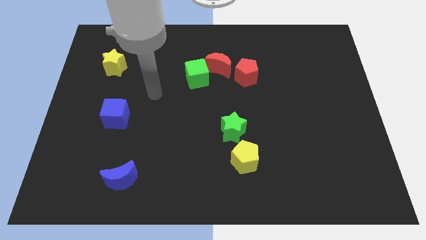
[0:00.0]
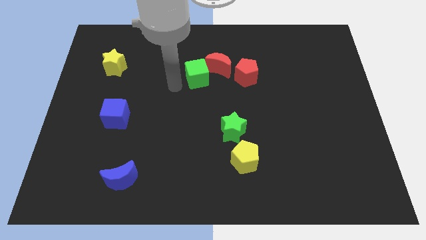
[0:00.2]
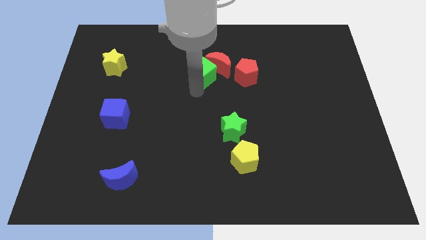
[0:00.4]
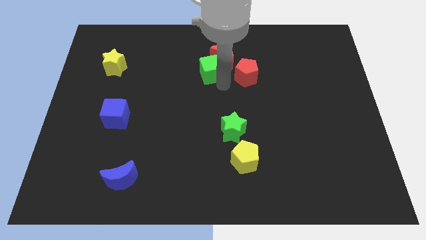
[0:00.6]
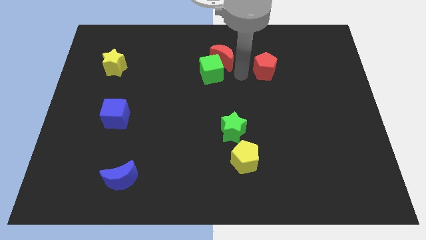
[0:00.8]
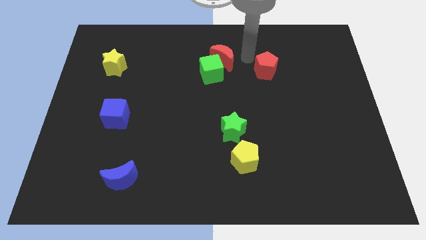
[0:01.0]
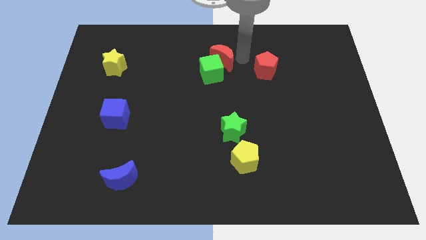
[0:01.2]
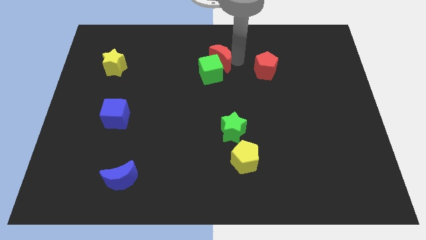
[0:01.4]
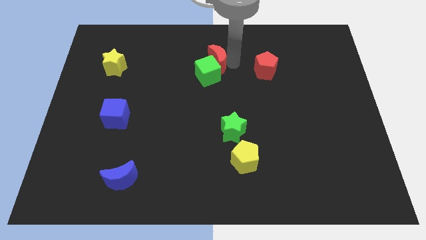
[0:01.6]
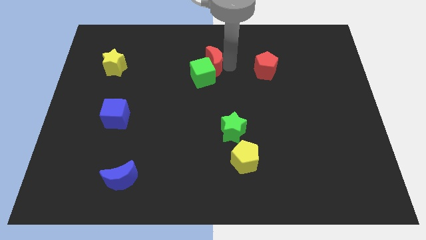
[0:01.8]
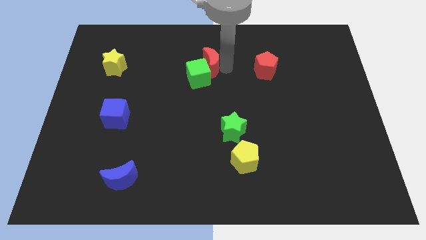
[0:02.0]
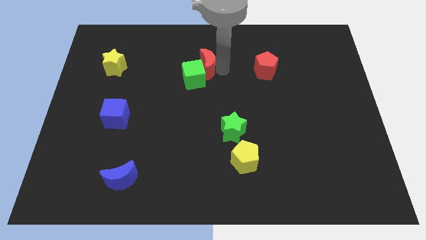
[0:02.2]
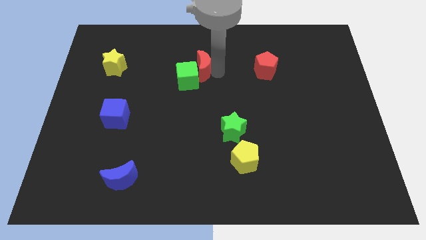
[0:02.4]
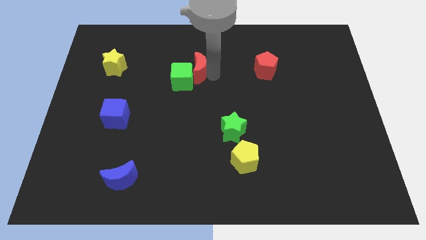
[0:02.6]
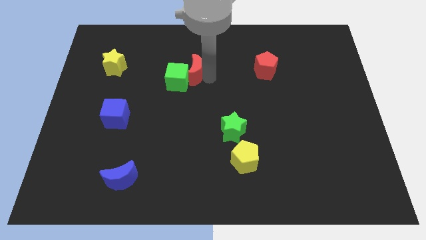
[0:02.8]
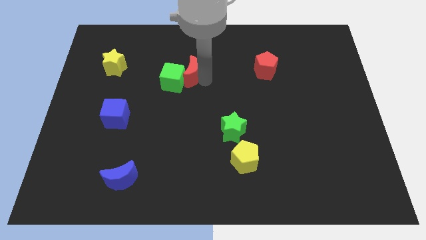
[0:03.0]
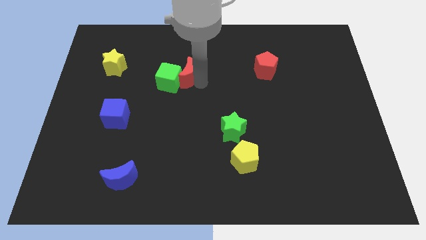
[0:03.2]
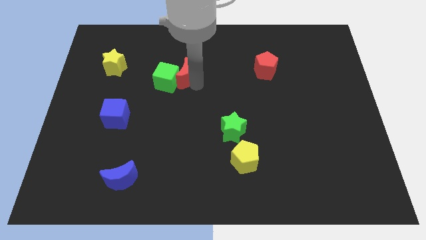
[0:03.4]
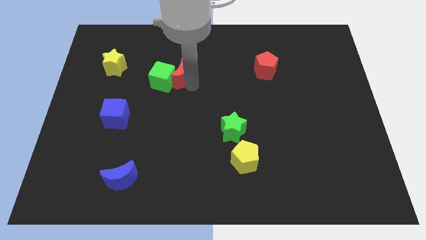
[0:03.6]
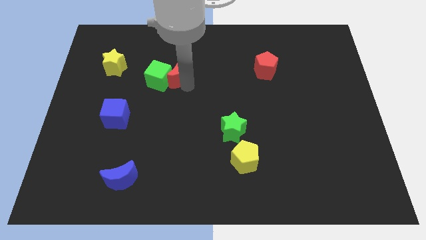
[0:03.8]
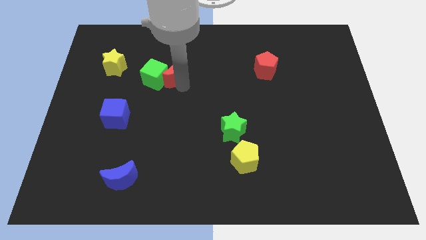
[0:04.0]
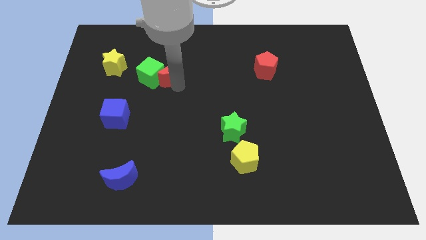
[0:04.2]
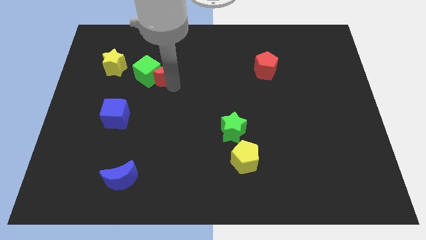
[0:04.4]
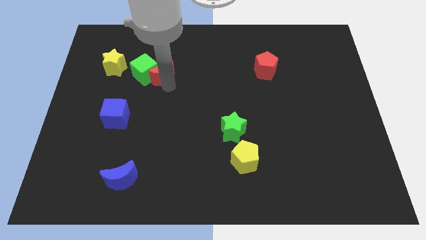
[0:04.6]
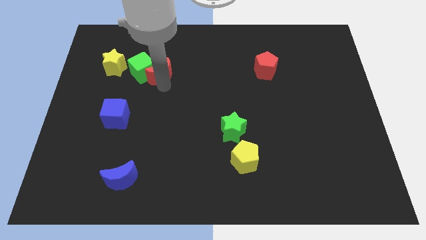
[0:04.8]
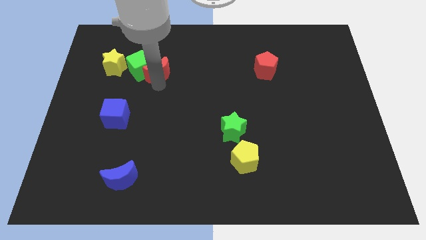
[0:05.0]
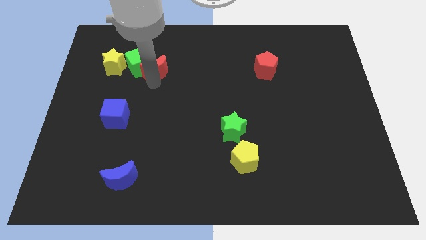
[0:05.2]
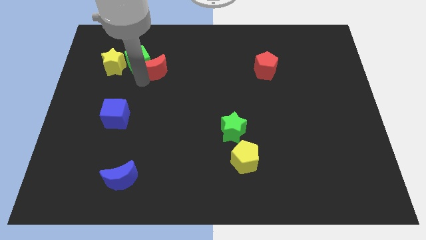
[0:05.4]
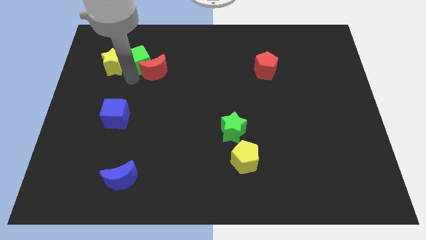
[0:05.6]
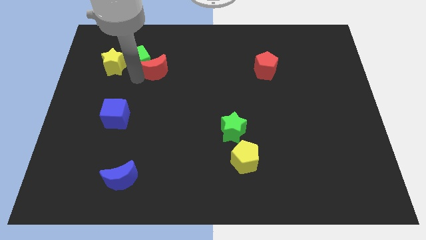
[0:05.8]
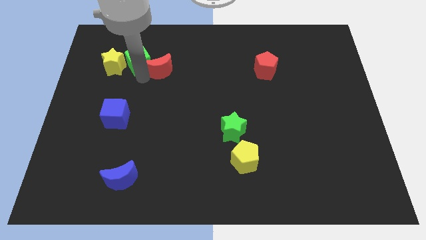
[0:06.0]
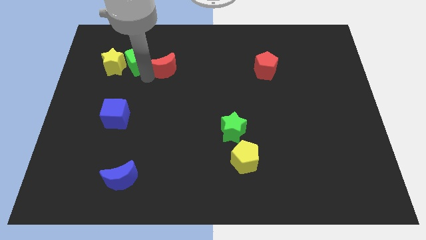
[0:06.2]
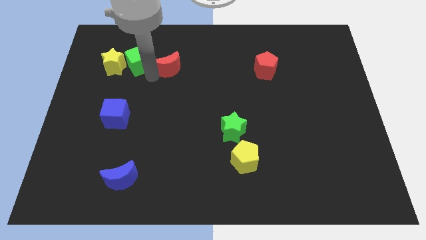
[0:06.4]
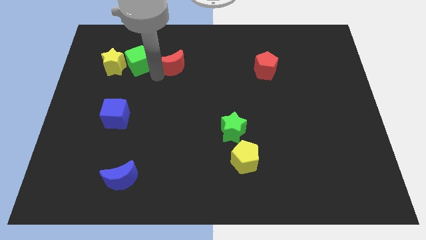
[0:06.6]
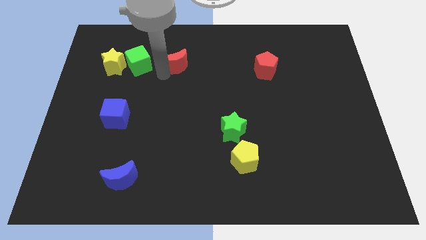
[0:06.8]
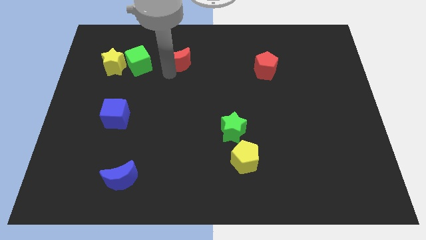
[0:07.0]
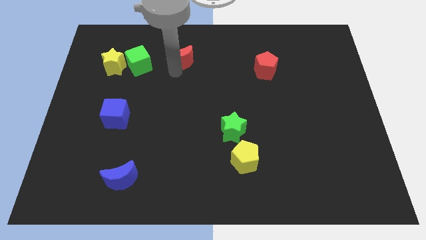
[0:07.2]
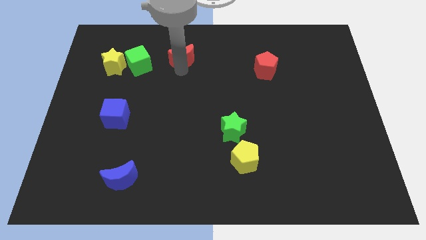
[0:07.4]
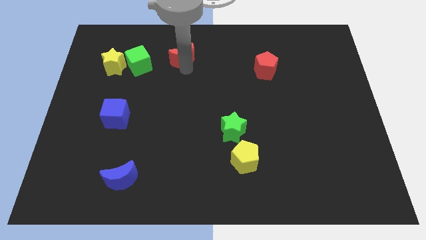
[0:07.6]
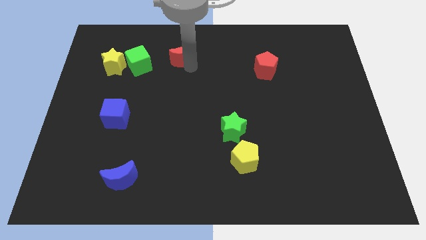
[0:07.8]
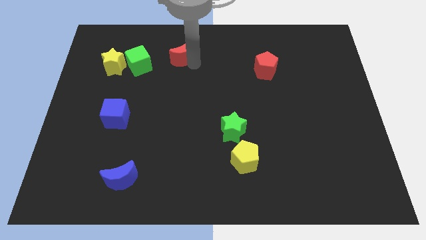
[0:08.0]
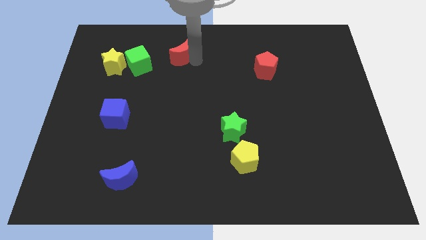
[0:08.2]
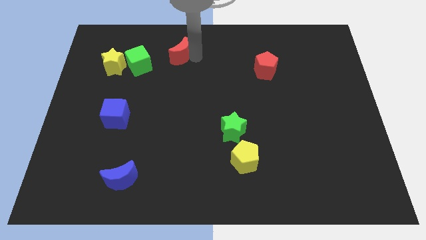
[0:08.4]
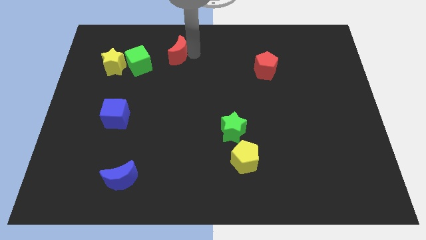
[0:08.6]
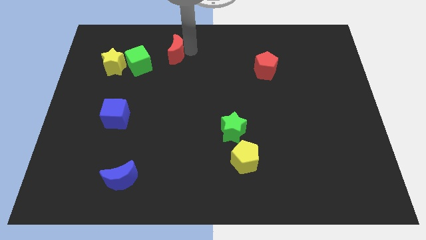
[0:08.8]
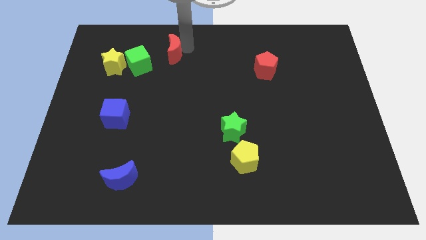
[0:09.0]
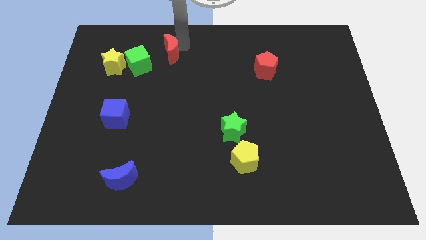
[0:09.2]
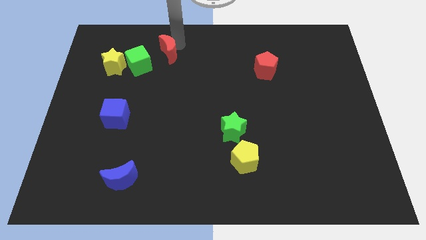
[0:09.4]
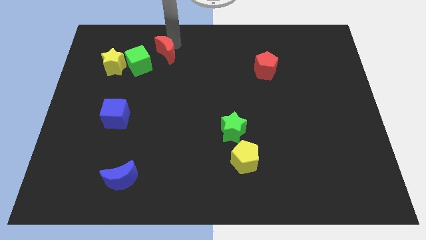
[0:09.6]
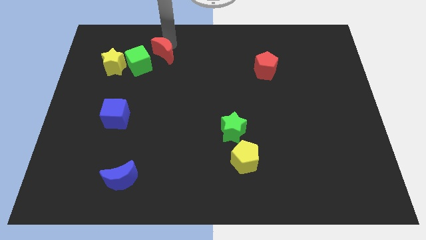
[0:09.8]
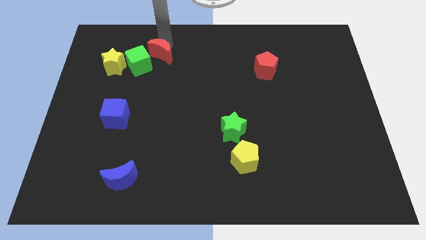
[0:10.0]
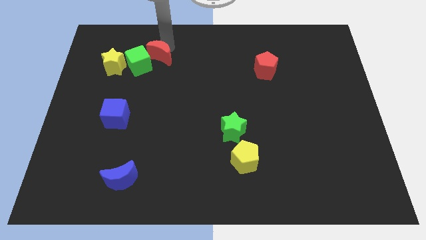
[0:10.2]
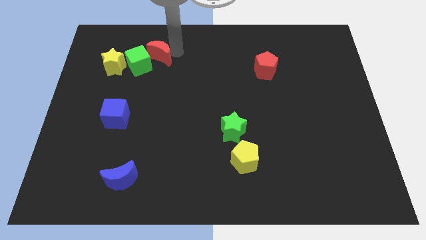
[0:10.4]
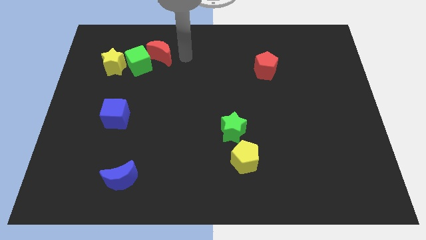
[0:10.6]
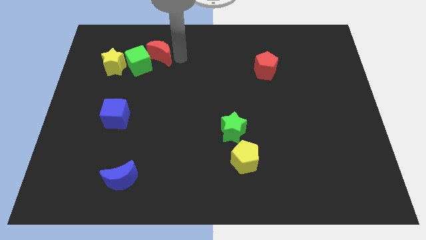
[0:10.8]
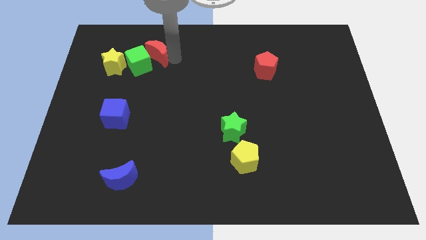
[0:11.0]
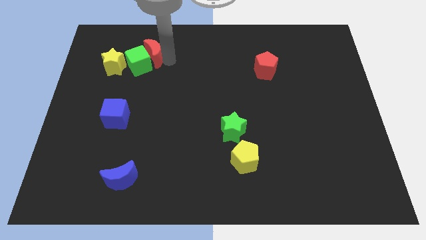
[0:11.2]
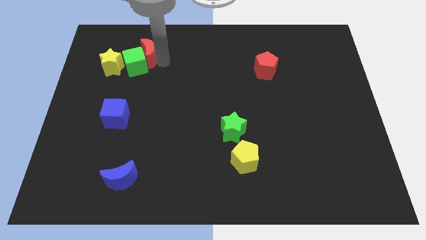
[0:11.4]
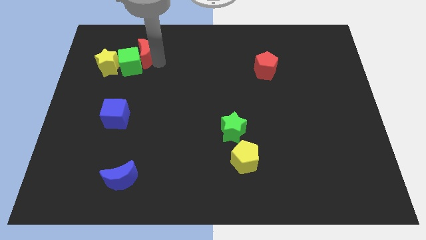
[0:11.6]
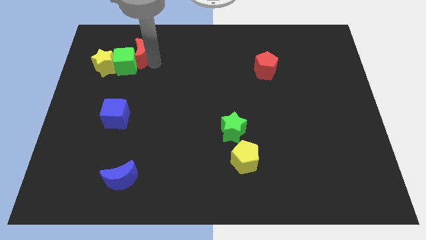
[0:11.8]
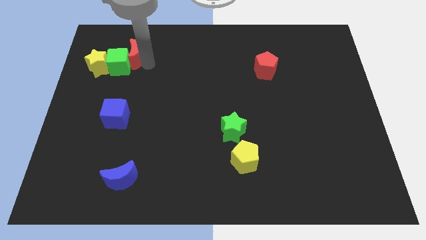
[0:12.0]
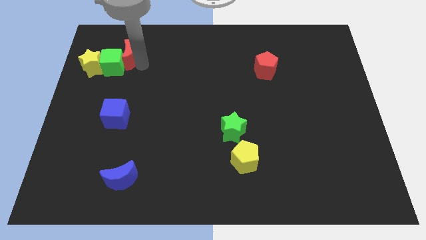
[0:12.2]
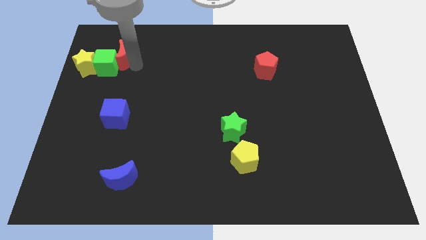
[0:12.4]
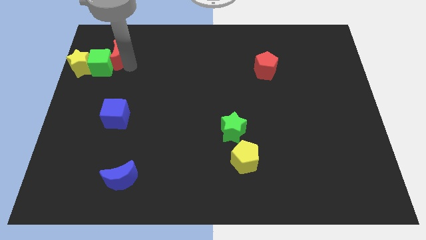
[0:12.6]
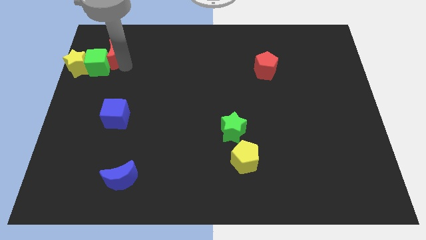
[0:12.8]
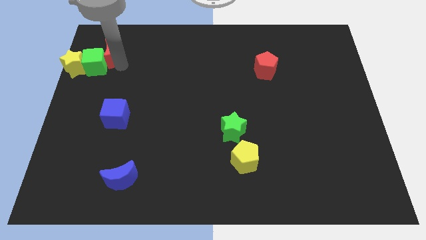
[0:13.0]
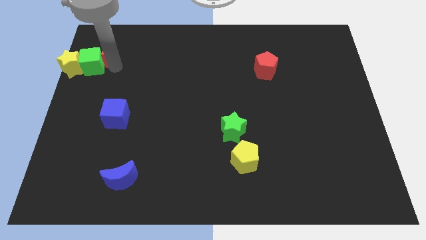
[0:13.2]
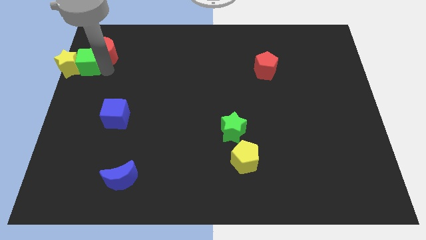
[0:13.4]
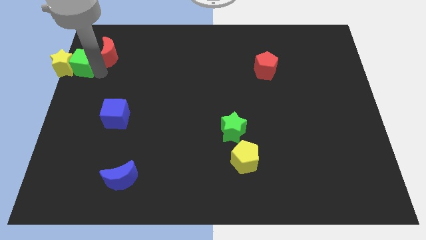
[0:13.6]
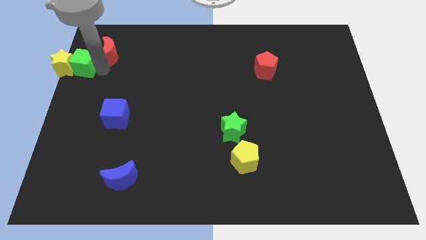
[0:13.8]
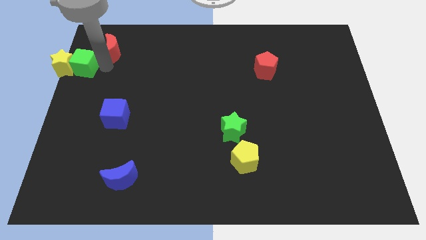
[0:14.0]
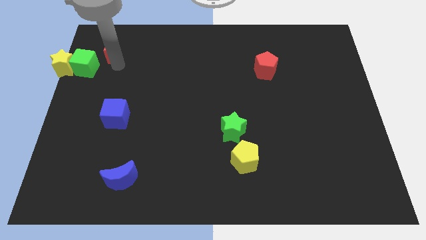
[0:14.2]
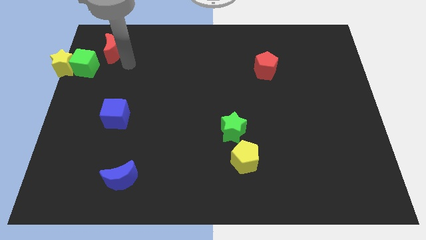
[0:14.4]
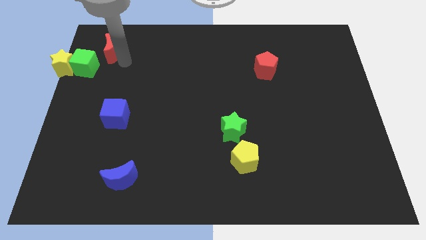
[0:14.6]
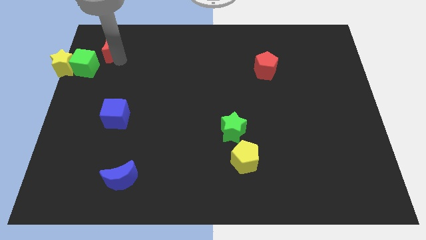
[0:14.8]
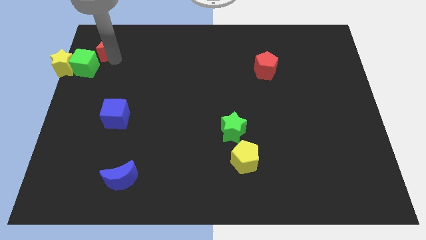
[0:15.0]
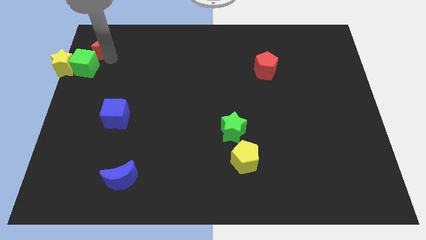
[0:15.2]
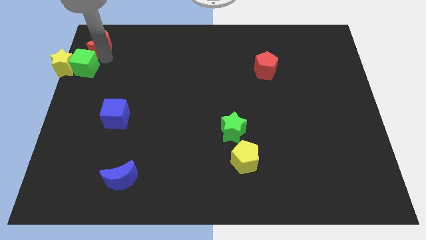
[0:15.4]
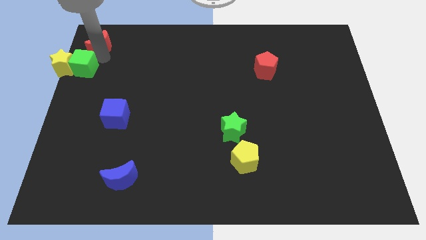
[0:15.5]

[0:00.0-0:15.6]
push the red moon to the top left corner
